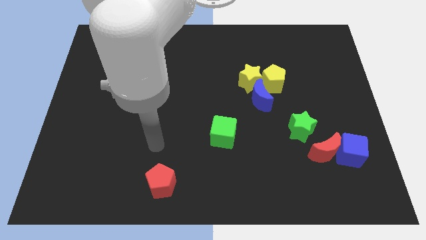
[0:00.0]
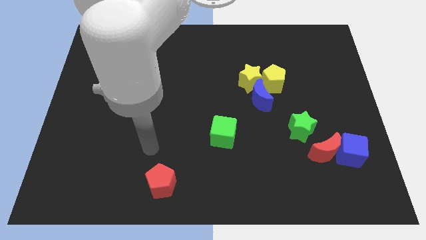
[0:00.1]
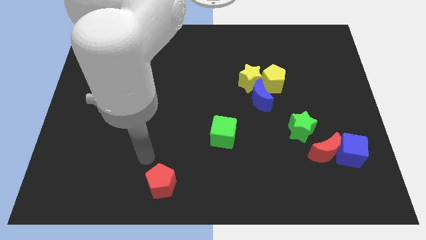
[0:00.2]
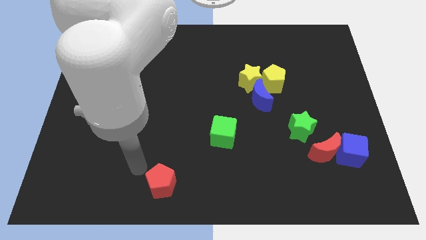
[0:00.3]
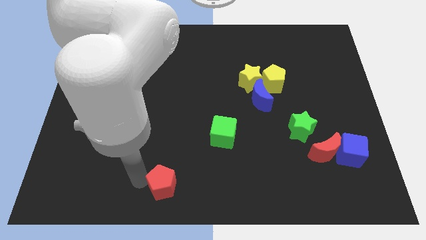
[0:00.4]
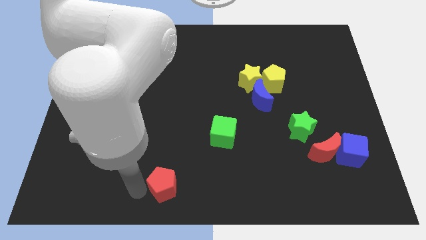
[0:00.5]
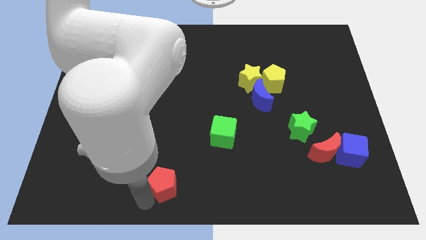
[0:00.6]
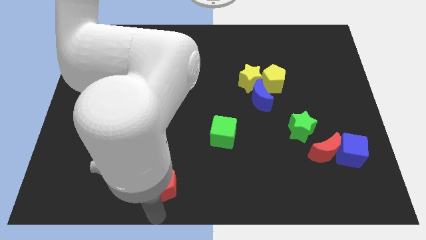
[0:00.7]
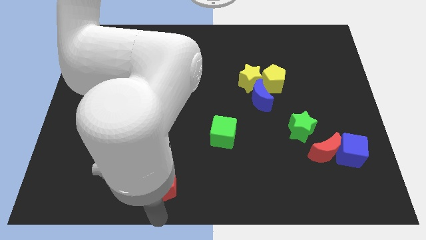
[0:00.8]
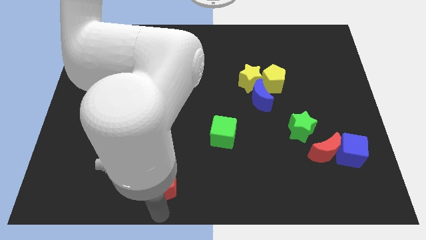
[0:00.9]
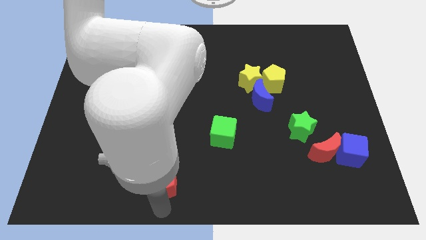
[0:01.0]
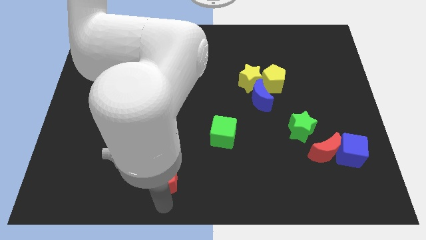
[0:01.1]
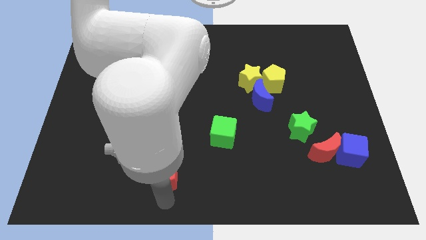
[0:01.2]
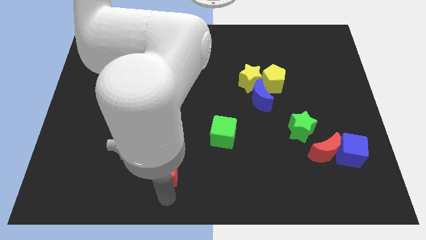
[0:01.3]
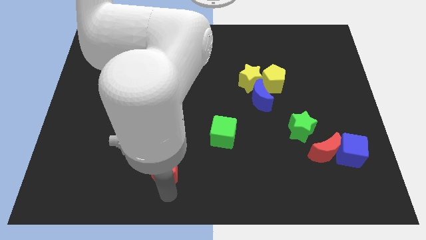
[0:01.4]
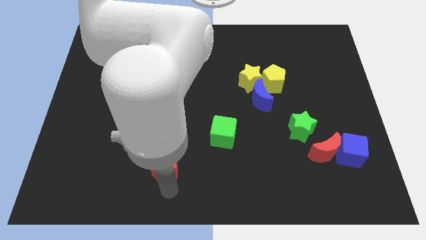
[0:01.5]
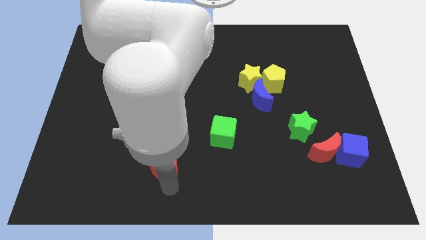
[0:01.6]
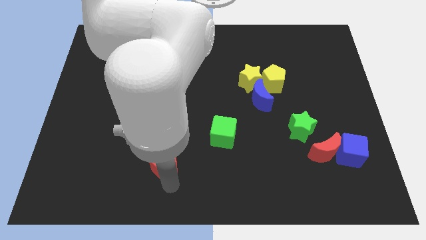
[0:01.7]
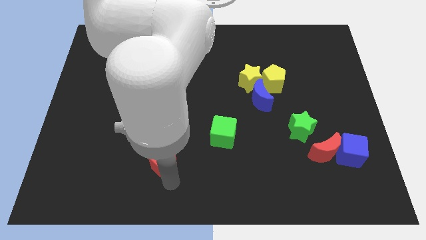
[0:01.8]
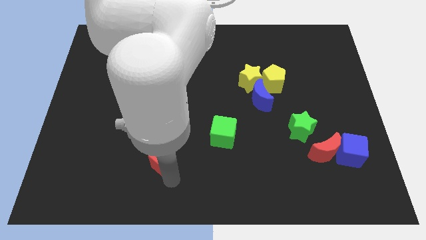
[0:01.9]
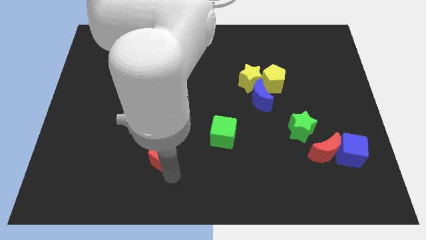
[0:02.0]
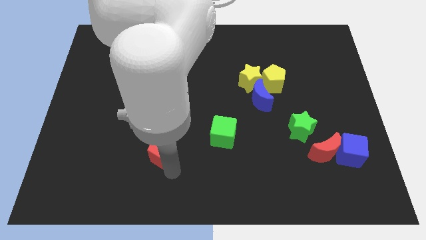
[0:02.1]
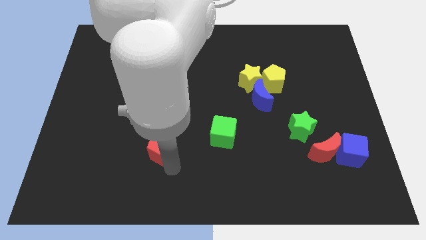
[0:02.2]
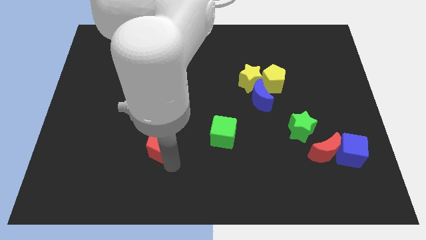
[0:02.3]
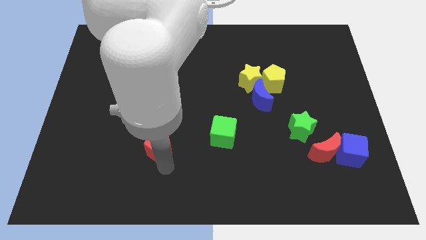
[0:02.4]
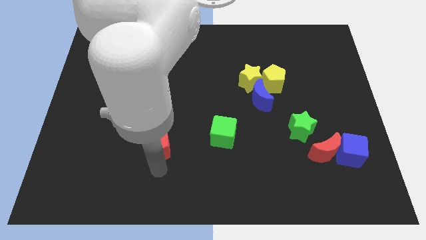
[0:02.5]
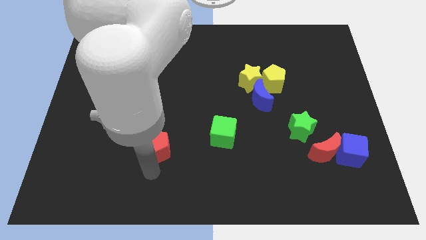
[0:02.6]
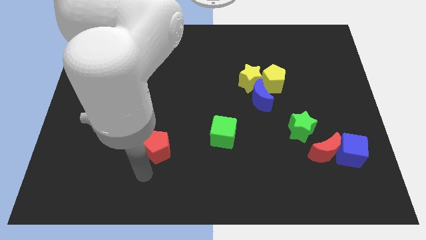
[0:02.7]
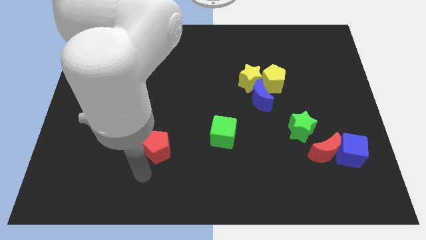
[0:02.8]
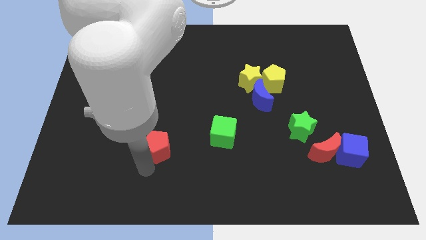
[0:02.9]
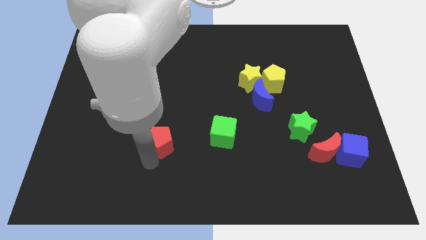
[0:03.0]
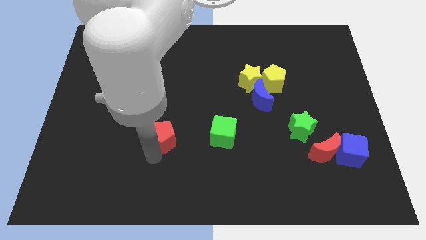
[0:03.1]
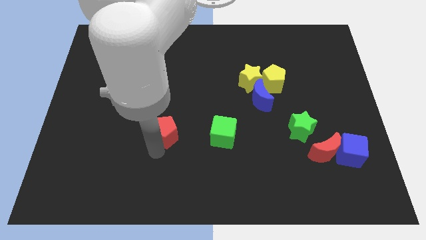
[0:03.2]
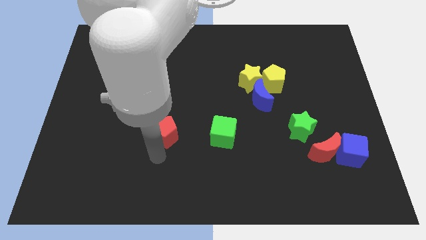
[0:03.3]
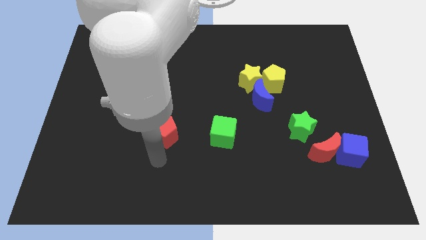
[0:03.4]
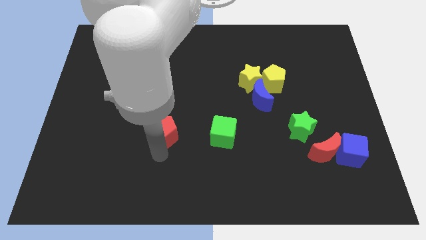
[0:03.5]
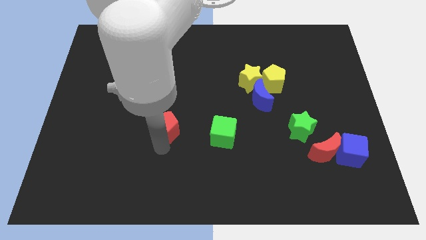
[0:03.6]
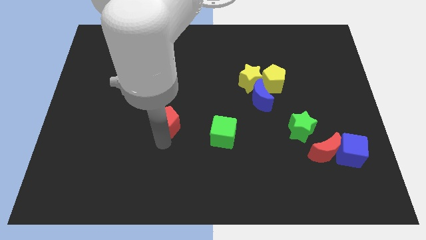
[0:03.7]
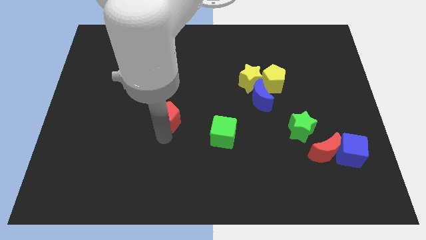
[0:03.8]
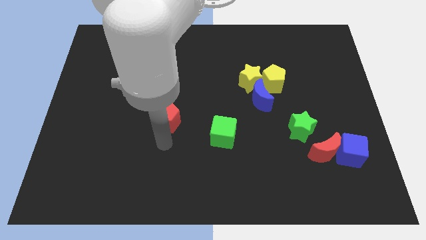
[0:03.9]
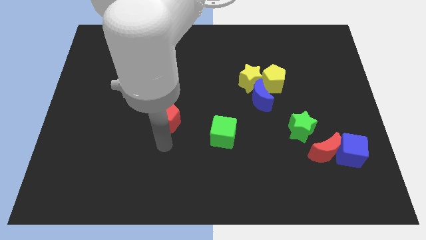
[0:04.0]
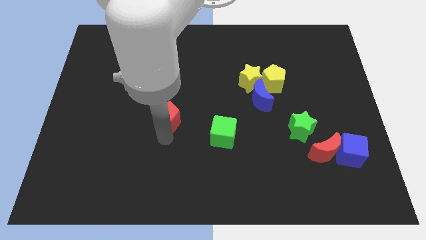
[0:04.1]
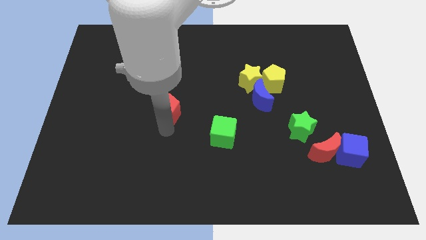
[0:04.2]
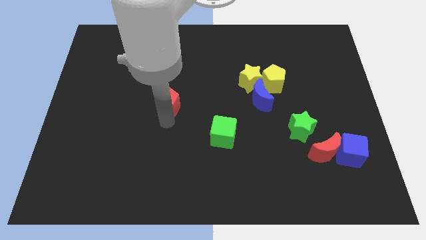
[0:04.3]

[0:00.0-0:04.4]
move the red pentagon up

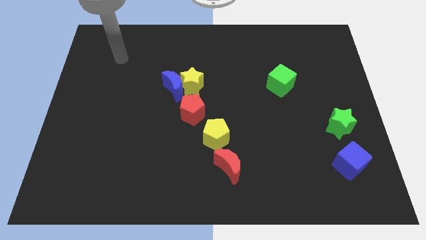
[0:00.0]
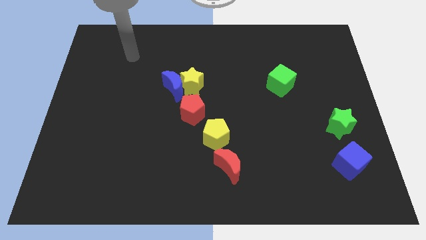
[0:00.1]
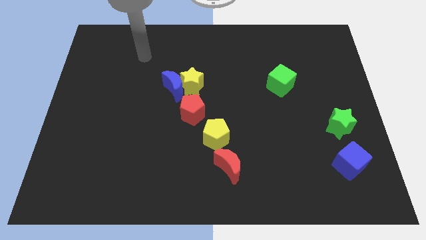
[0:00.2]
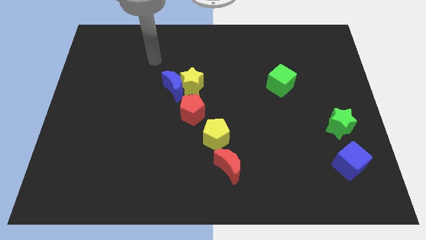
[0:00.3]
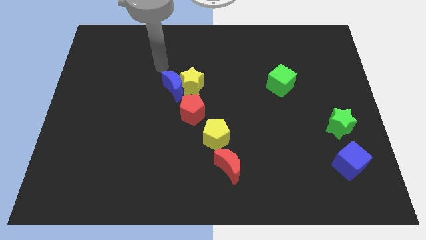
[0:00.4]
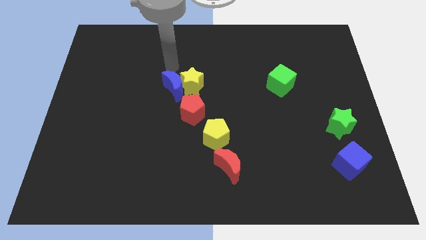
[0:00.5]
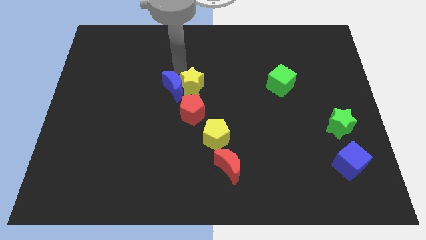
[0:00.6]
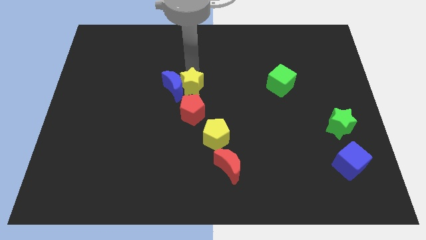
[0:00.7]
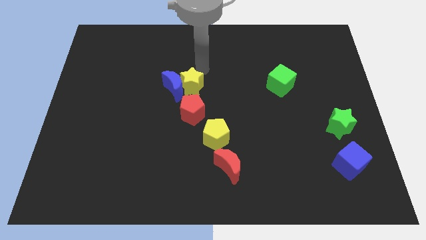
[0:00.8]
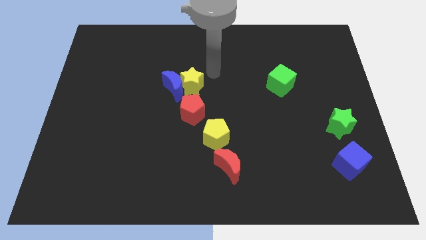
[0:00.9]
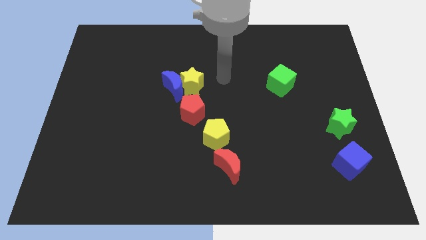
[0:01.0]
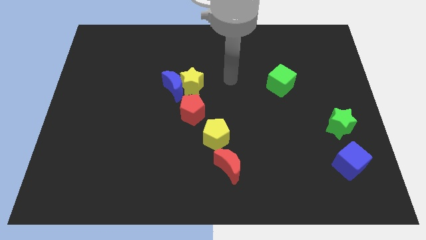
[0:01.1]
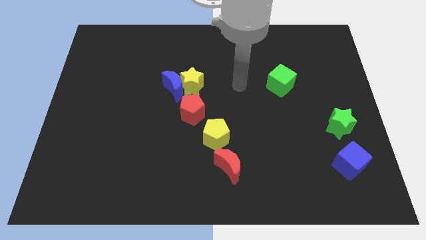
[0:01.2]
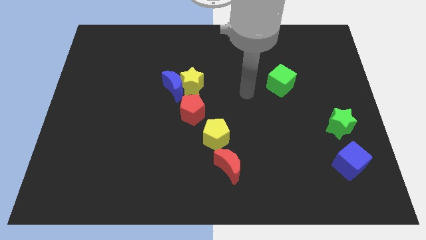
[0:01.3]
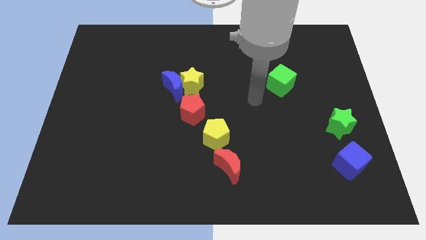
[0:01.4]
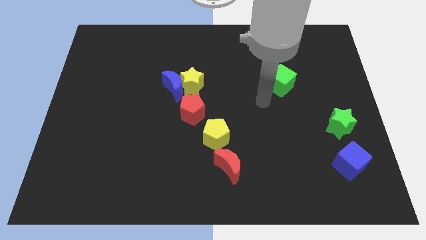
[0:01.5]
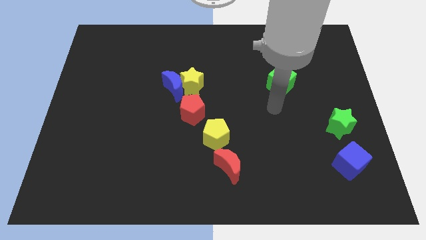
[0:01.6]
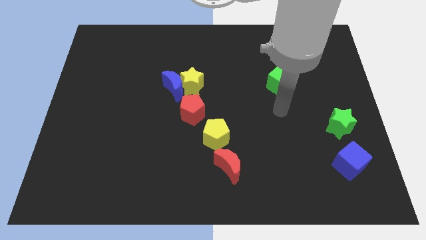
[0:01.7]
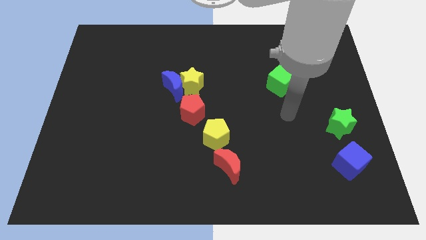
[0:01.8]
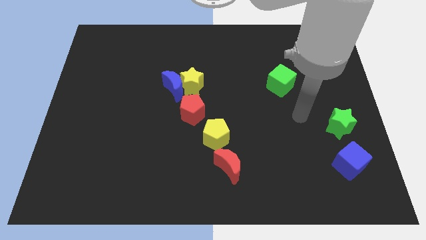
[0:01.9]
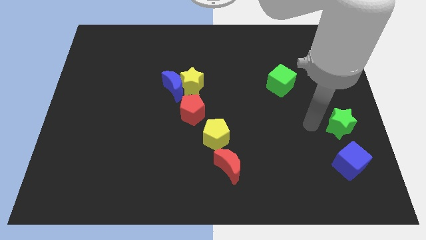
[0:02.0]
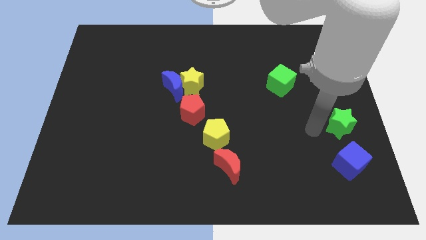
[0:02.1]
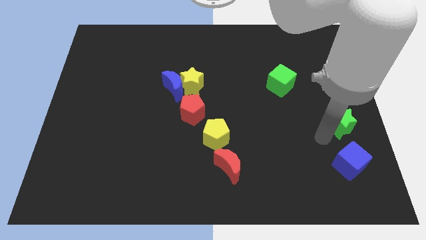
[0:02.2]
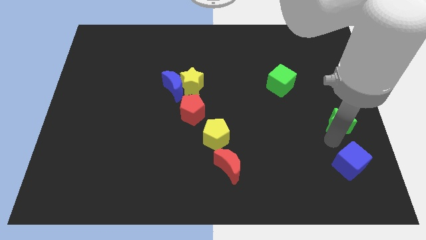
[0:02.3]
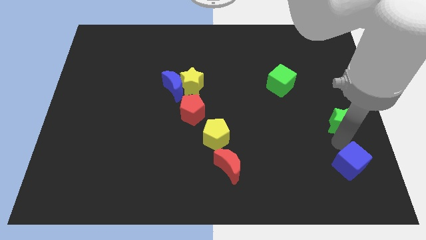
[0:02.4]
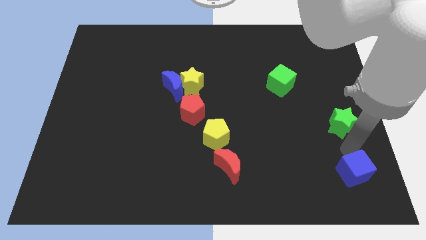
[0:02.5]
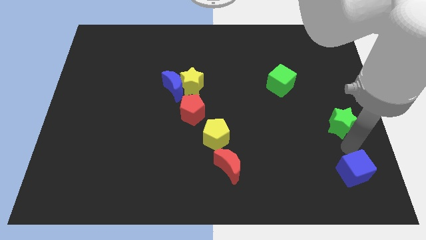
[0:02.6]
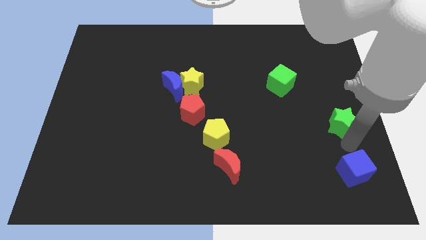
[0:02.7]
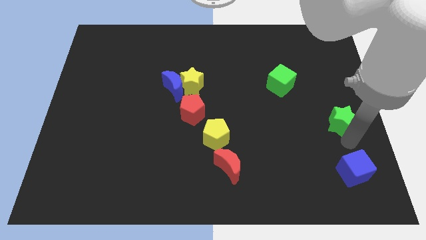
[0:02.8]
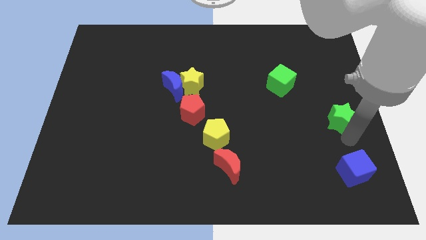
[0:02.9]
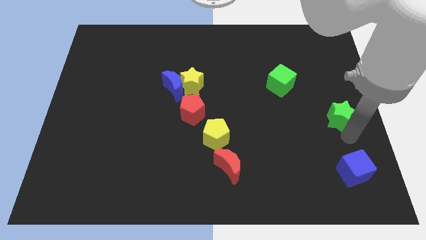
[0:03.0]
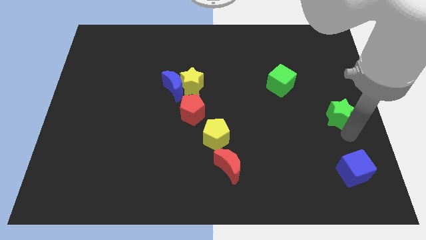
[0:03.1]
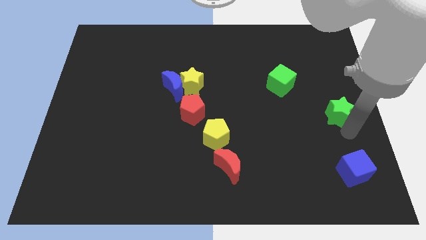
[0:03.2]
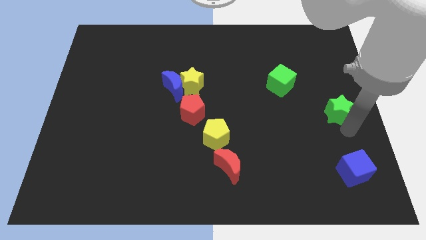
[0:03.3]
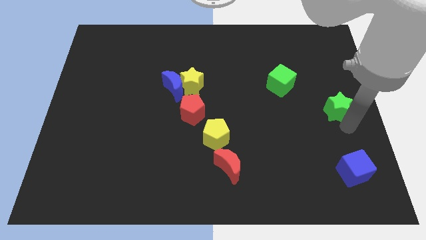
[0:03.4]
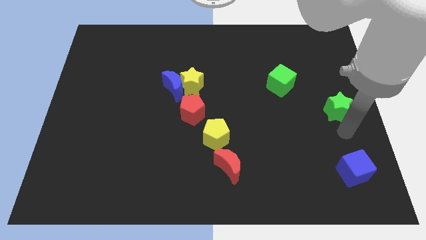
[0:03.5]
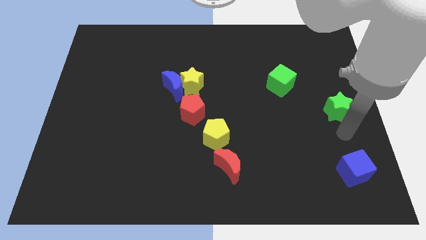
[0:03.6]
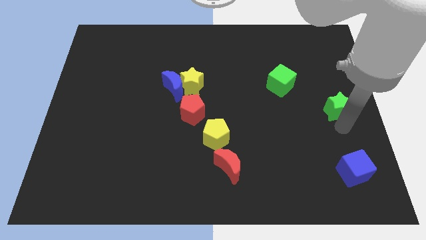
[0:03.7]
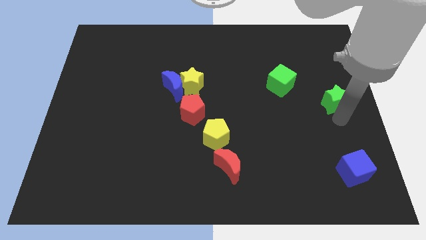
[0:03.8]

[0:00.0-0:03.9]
slightly slide the green star upwards
